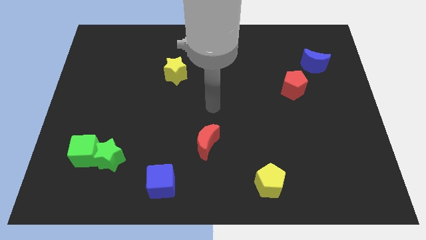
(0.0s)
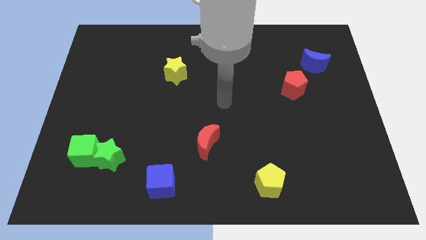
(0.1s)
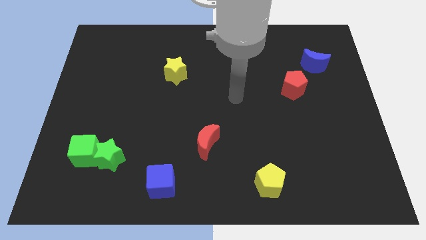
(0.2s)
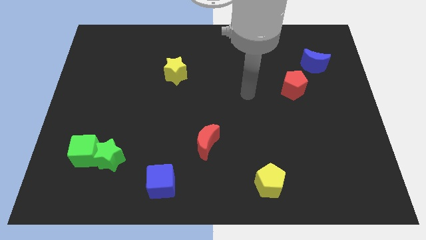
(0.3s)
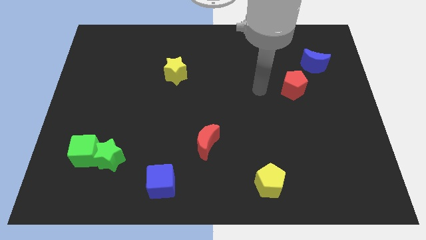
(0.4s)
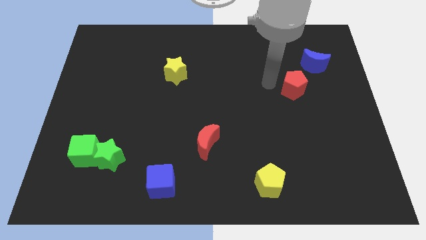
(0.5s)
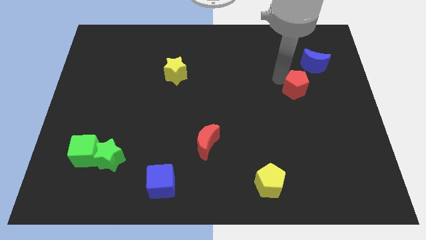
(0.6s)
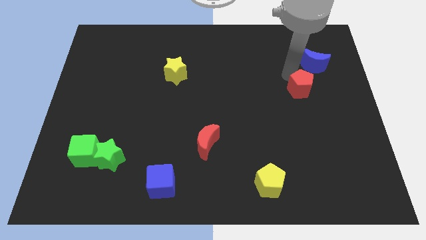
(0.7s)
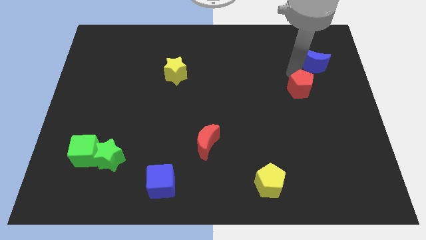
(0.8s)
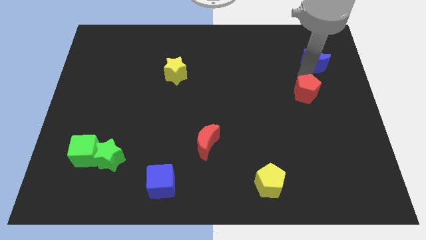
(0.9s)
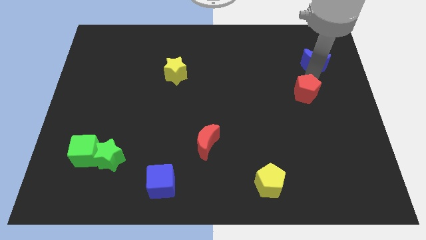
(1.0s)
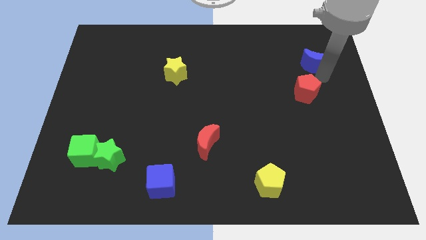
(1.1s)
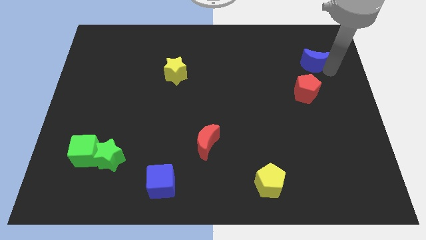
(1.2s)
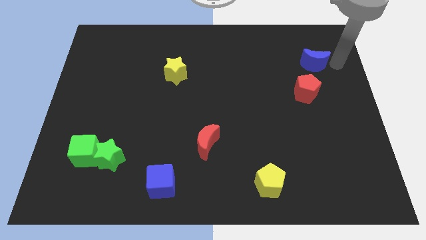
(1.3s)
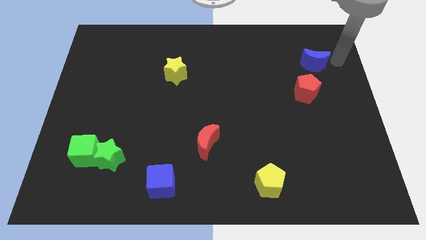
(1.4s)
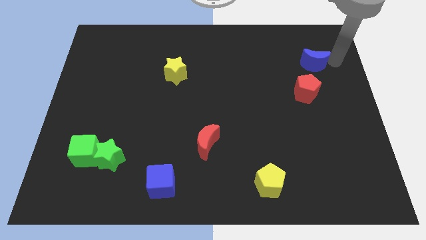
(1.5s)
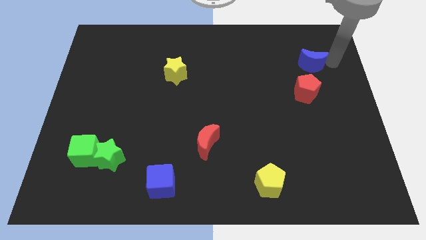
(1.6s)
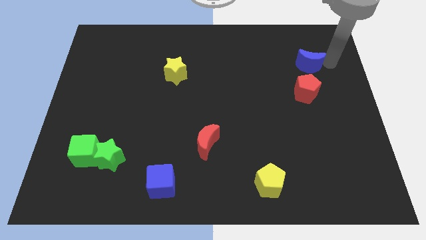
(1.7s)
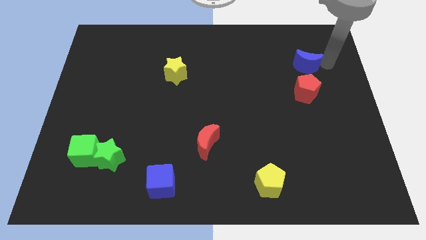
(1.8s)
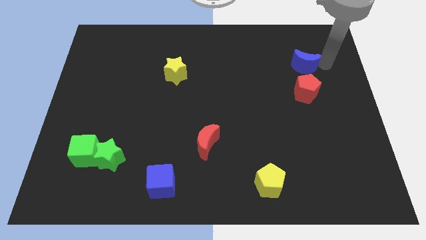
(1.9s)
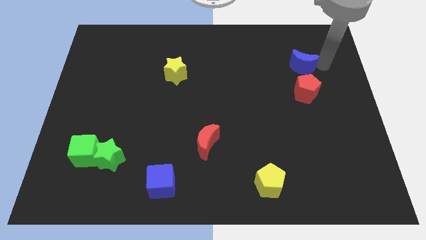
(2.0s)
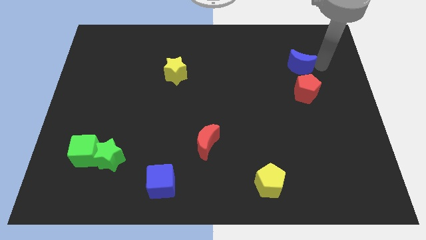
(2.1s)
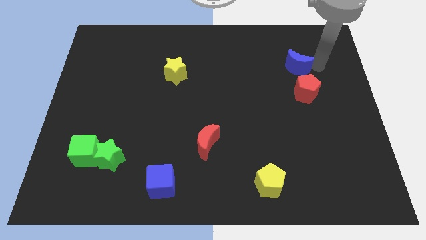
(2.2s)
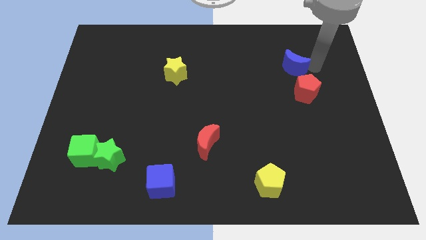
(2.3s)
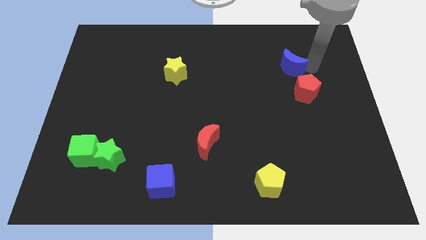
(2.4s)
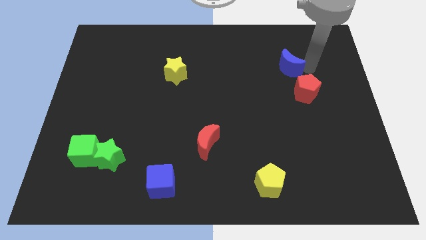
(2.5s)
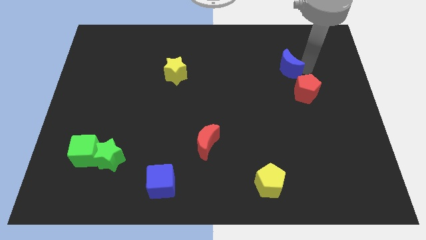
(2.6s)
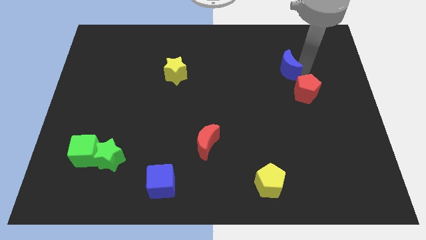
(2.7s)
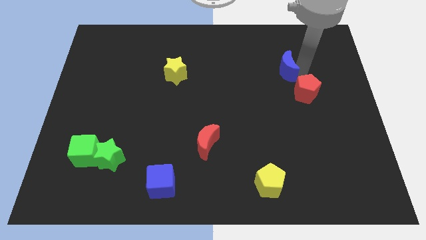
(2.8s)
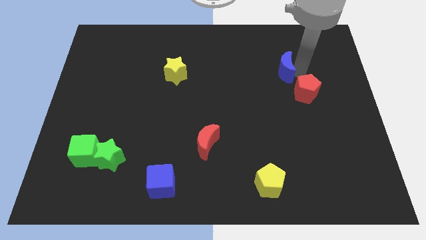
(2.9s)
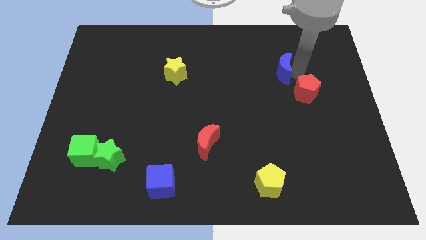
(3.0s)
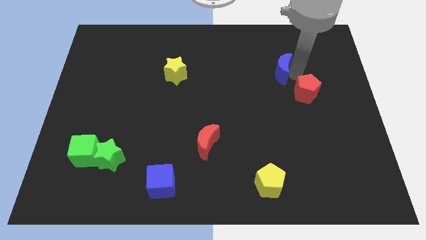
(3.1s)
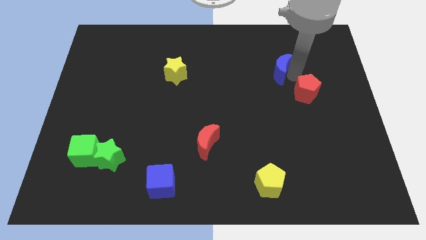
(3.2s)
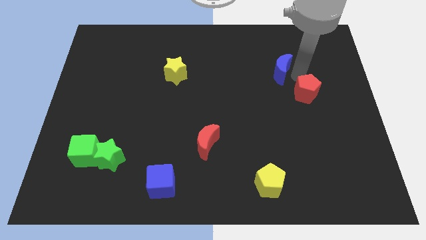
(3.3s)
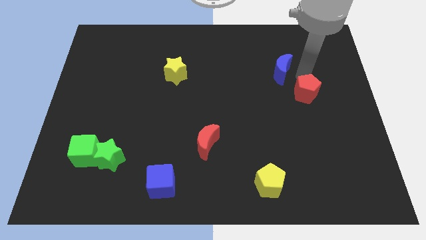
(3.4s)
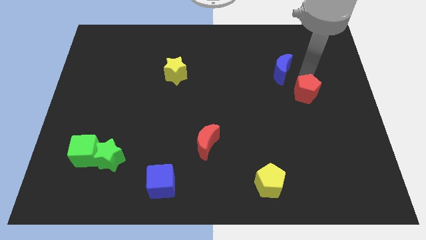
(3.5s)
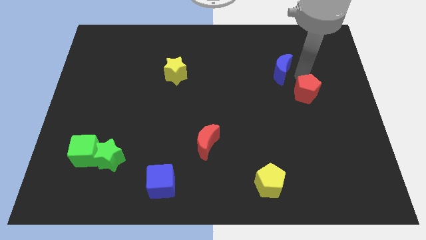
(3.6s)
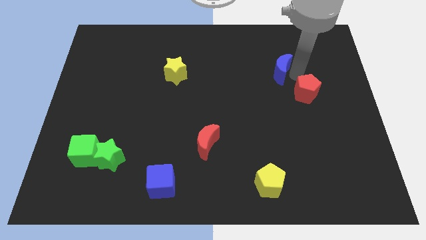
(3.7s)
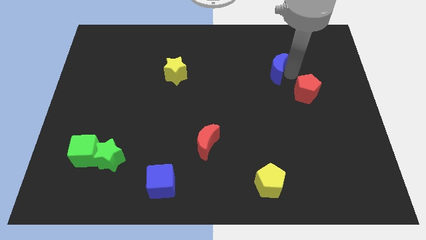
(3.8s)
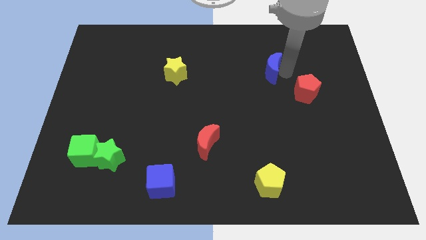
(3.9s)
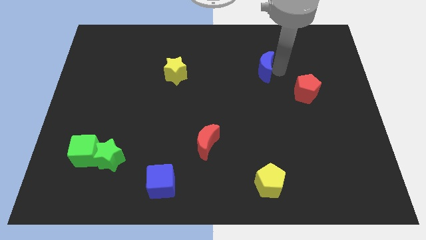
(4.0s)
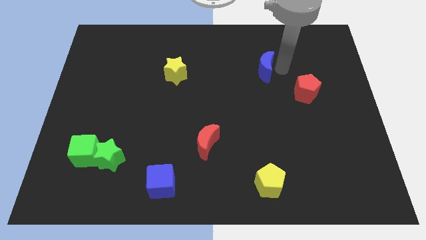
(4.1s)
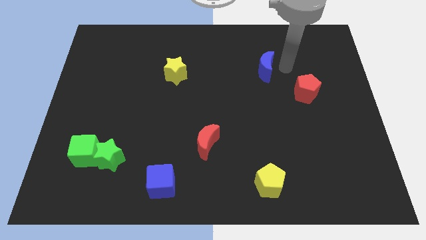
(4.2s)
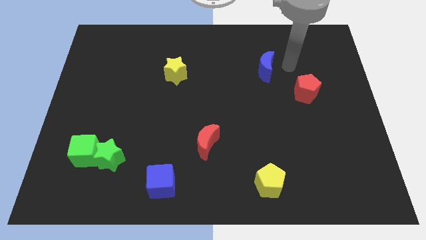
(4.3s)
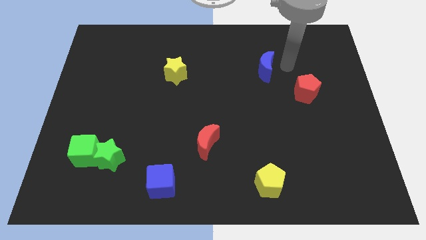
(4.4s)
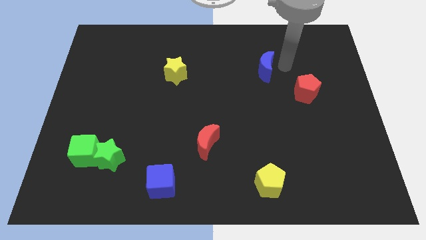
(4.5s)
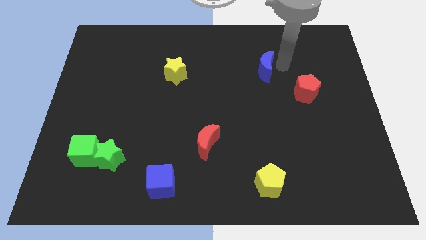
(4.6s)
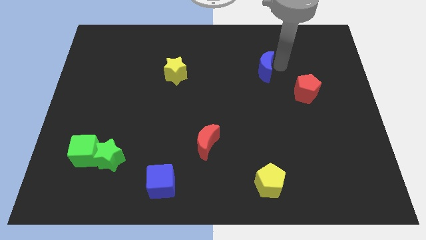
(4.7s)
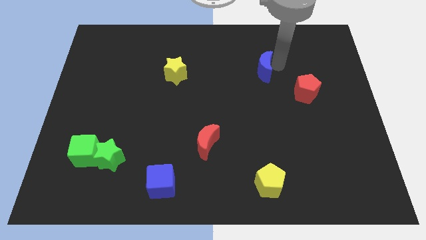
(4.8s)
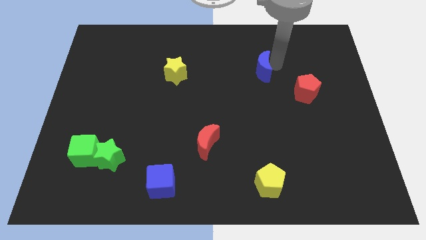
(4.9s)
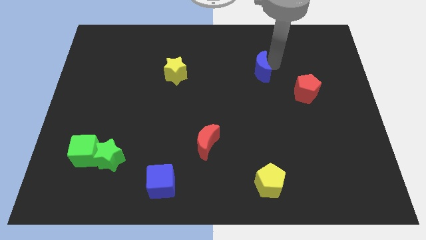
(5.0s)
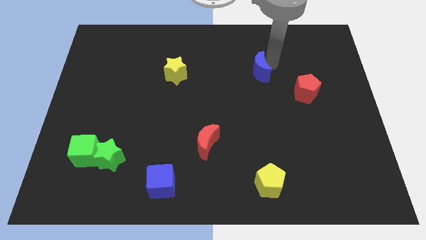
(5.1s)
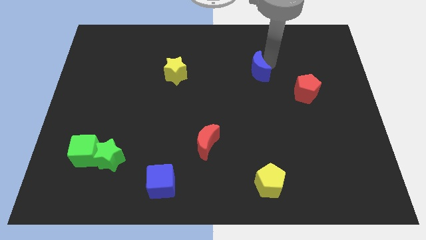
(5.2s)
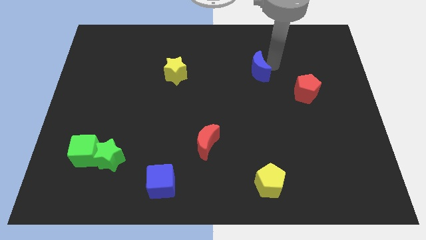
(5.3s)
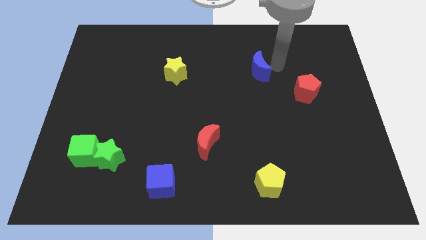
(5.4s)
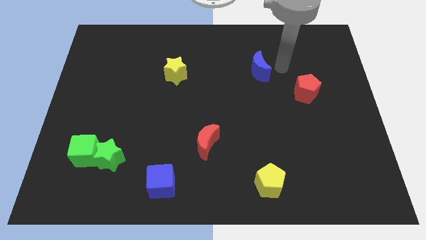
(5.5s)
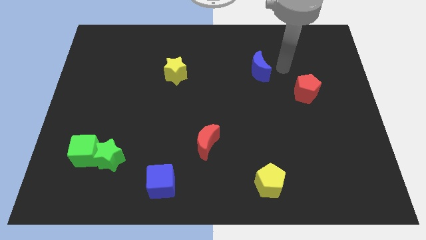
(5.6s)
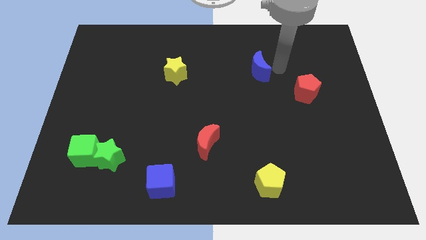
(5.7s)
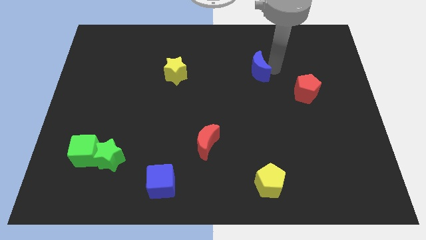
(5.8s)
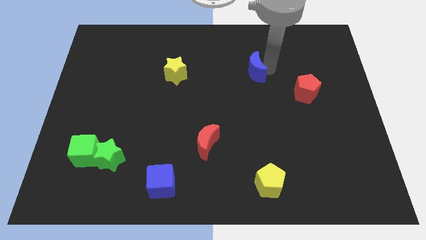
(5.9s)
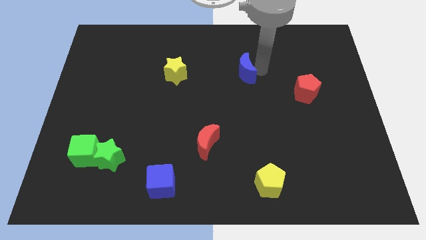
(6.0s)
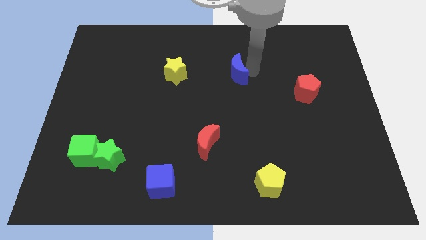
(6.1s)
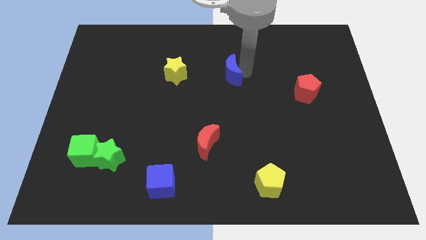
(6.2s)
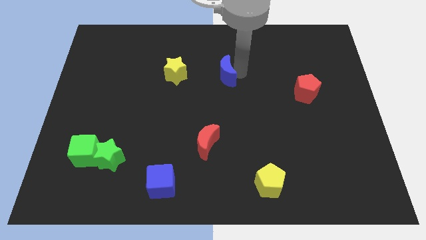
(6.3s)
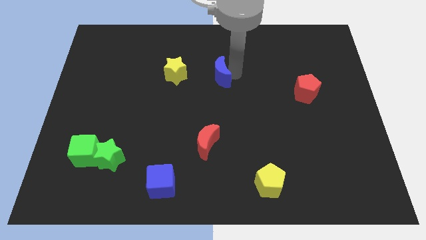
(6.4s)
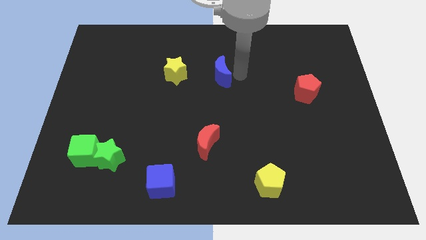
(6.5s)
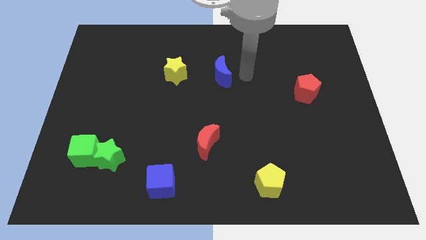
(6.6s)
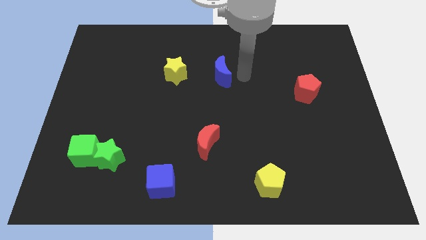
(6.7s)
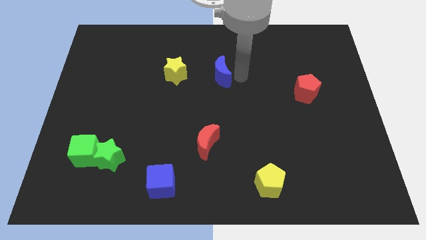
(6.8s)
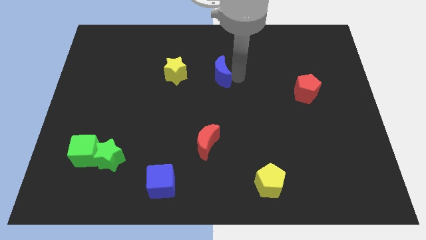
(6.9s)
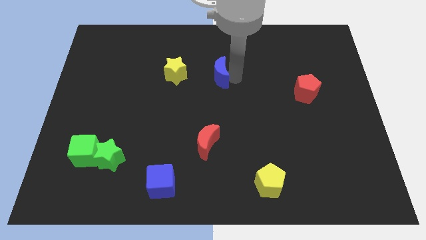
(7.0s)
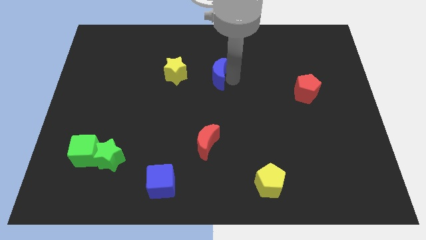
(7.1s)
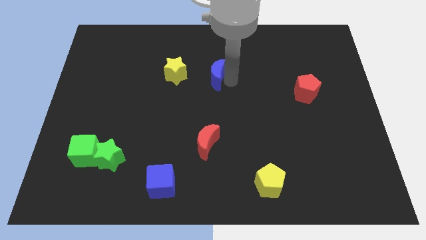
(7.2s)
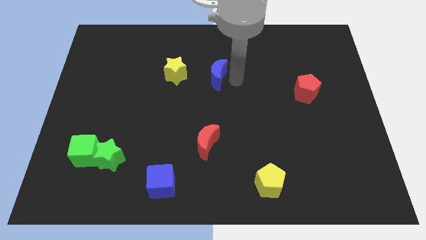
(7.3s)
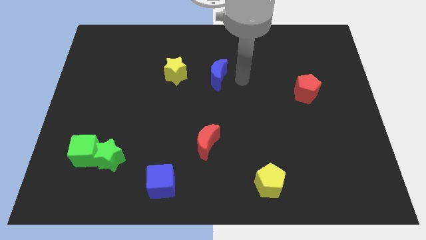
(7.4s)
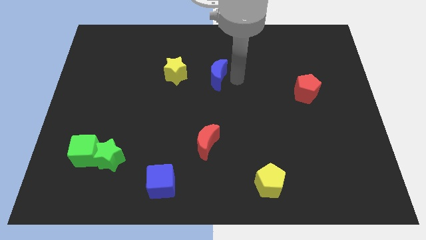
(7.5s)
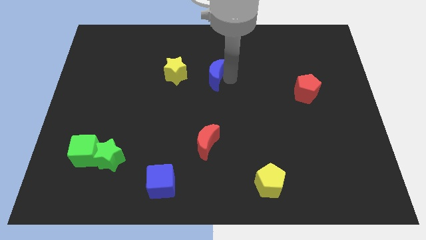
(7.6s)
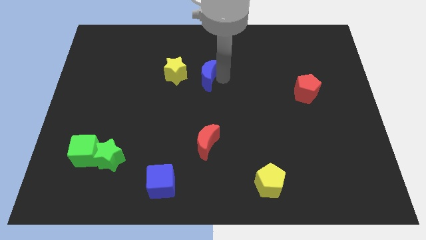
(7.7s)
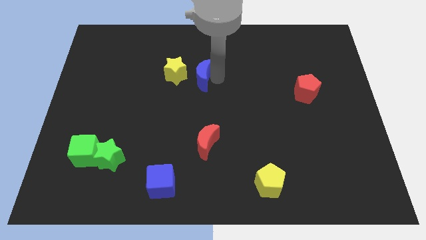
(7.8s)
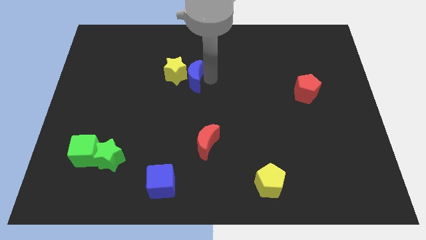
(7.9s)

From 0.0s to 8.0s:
put the blue moon towards the yellow star
